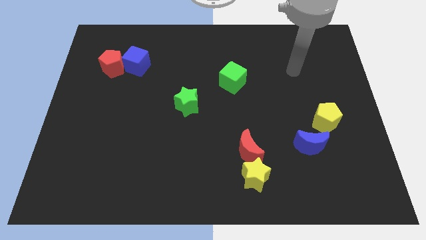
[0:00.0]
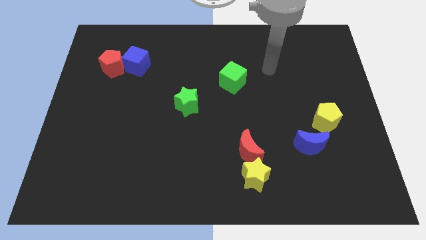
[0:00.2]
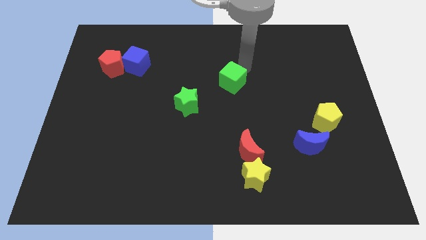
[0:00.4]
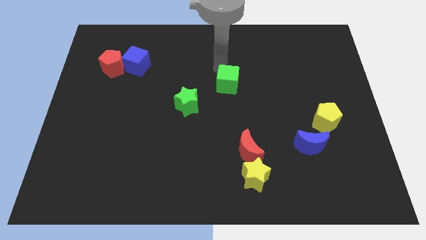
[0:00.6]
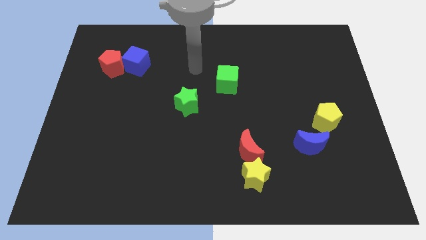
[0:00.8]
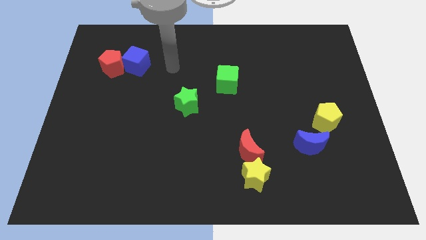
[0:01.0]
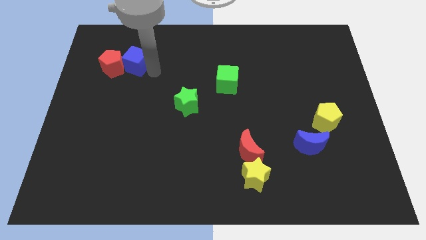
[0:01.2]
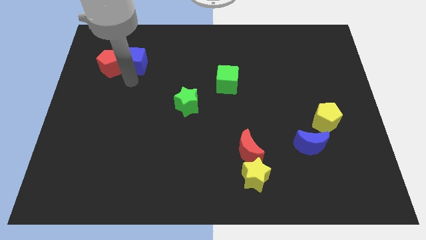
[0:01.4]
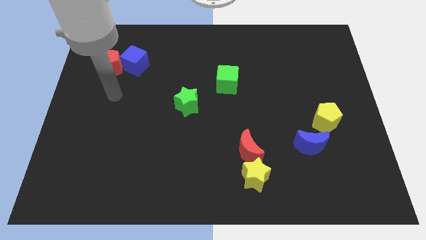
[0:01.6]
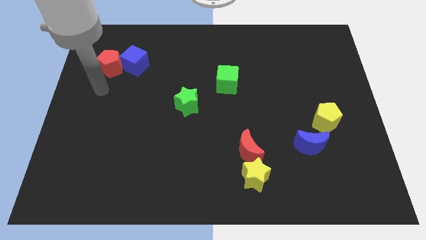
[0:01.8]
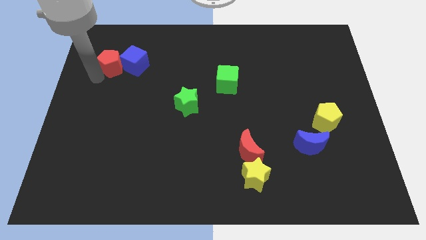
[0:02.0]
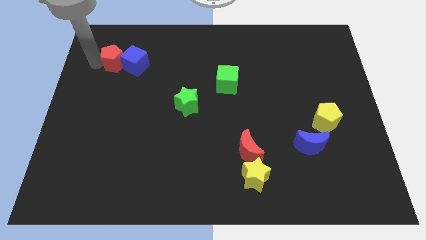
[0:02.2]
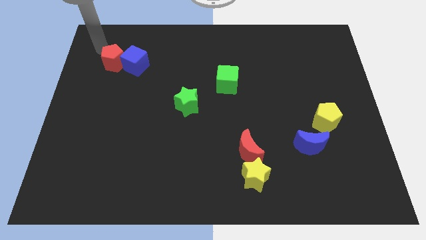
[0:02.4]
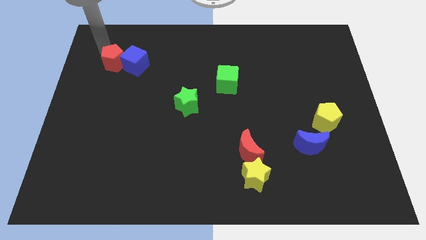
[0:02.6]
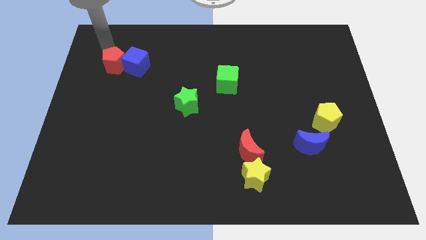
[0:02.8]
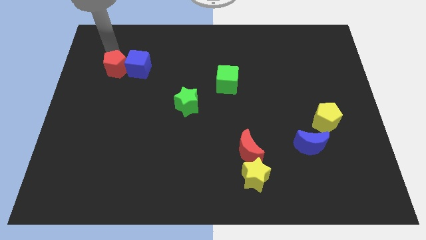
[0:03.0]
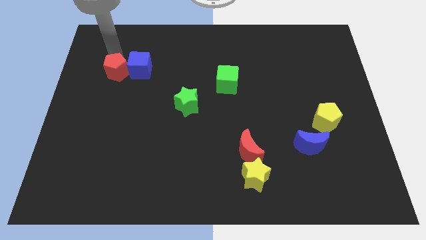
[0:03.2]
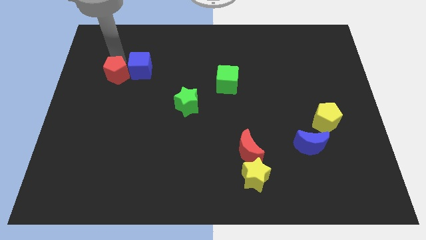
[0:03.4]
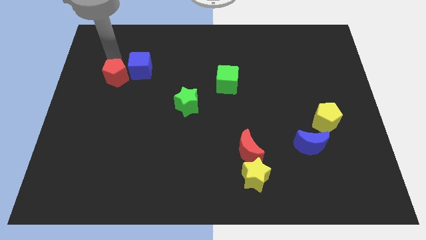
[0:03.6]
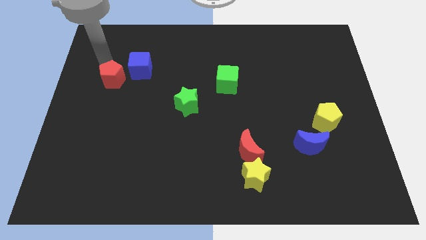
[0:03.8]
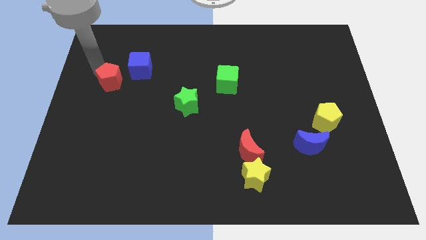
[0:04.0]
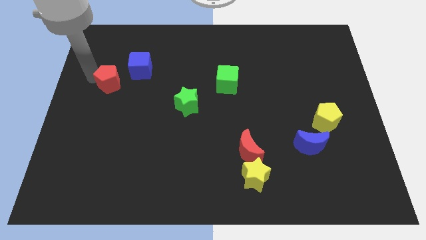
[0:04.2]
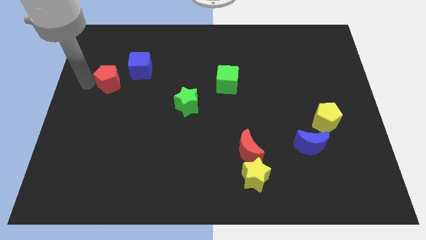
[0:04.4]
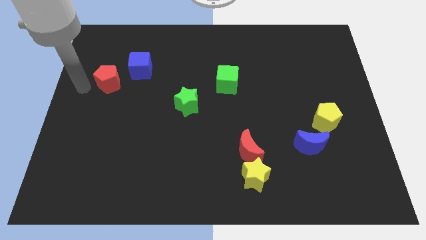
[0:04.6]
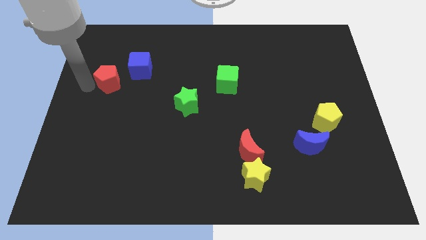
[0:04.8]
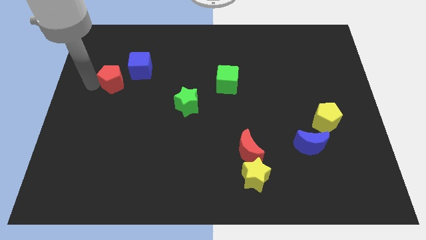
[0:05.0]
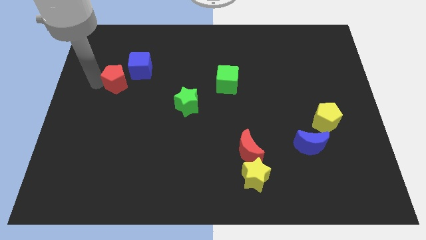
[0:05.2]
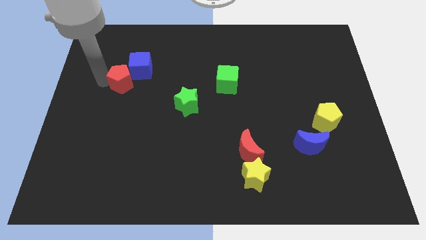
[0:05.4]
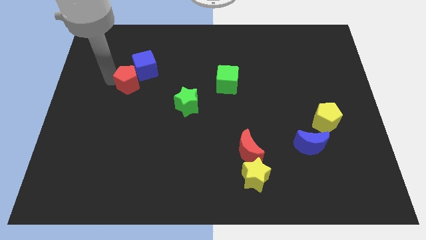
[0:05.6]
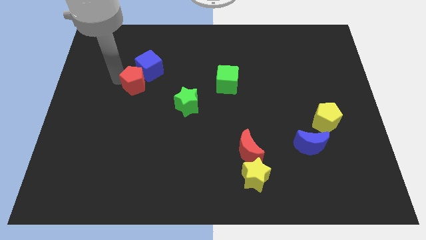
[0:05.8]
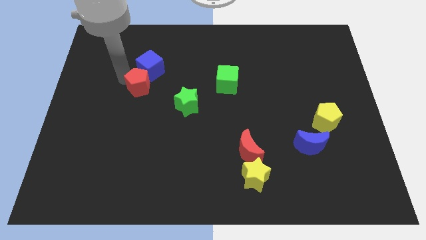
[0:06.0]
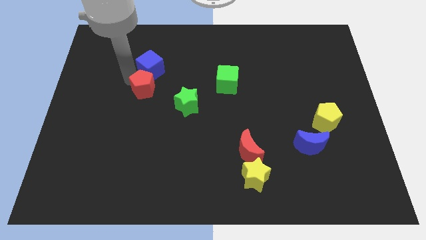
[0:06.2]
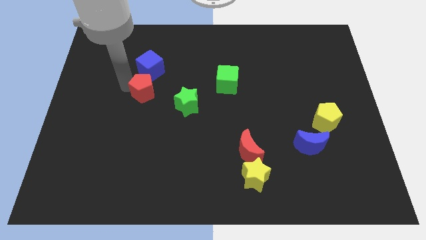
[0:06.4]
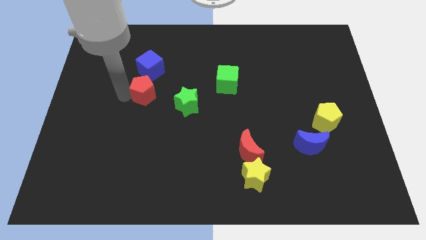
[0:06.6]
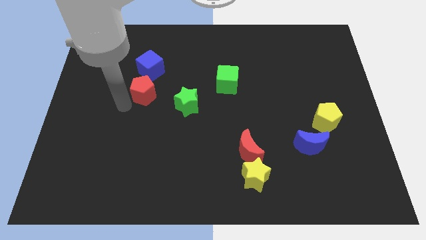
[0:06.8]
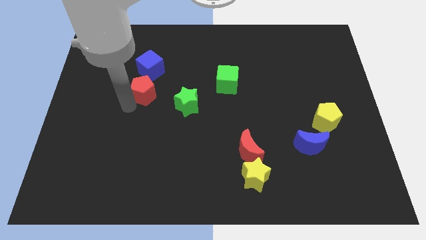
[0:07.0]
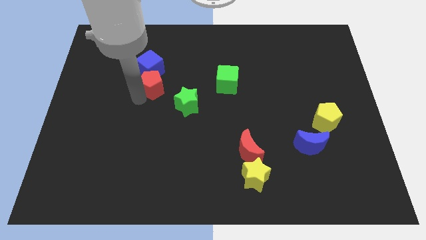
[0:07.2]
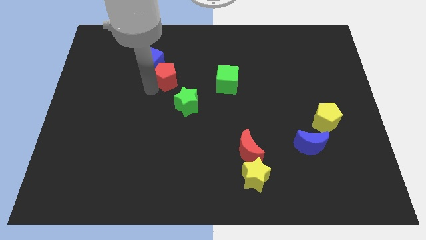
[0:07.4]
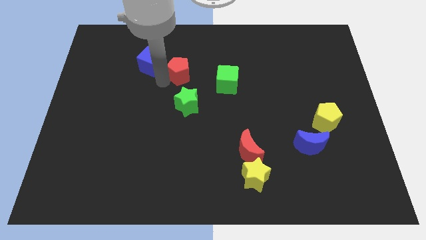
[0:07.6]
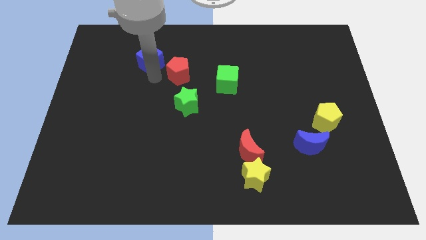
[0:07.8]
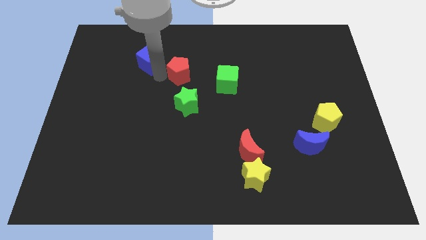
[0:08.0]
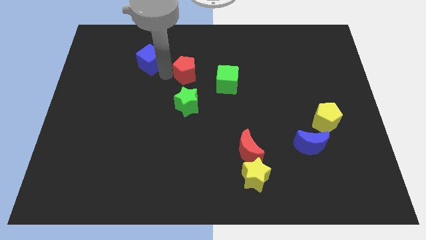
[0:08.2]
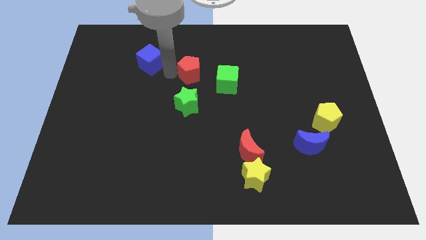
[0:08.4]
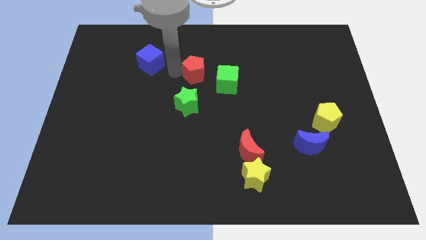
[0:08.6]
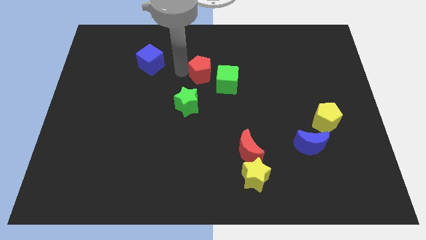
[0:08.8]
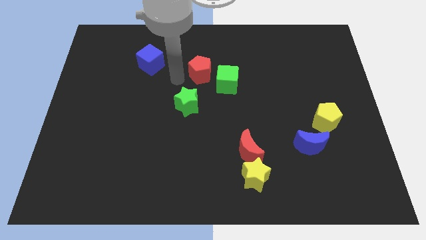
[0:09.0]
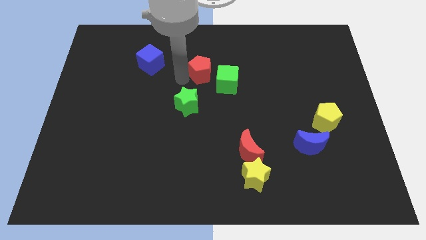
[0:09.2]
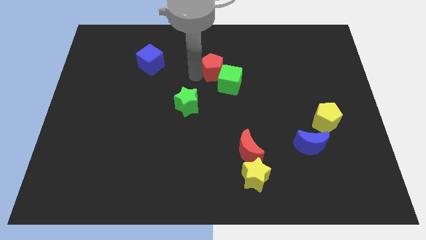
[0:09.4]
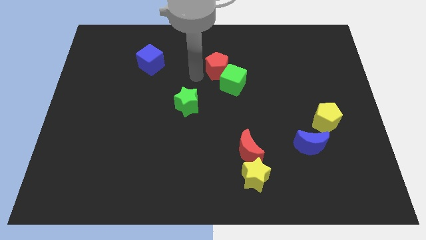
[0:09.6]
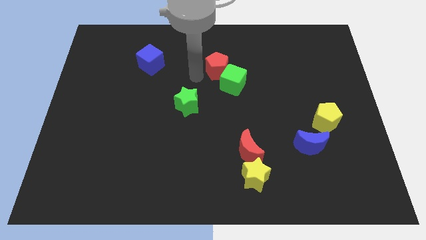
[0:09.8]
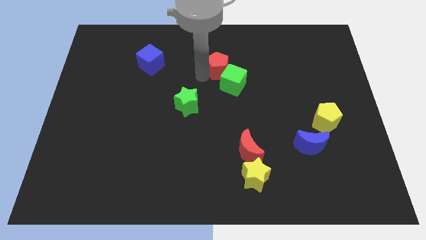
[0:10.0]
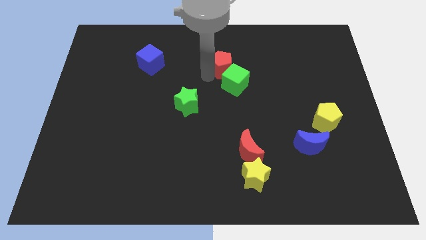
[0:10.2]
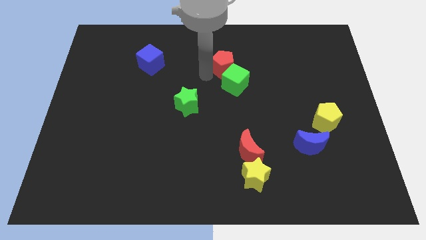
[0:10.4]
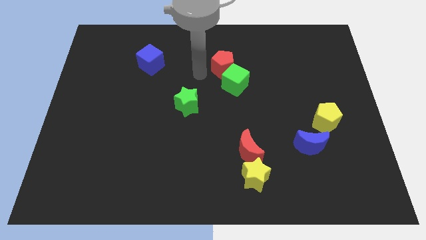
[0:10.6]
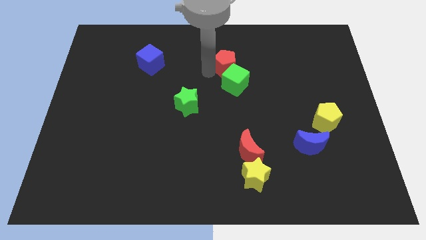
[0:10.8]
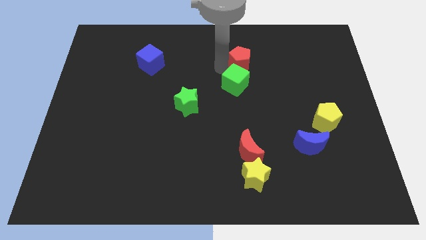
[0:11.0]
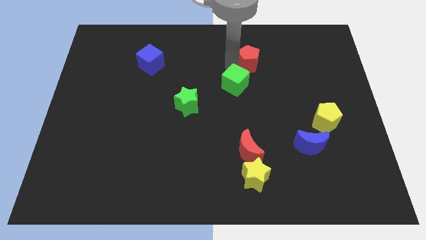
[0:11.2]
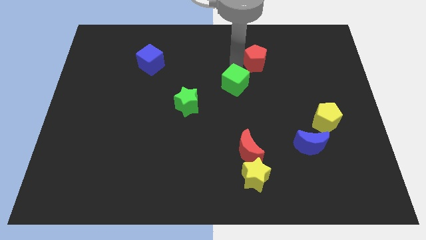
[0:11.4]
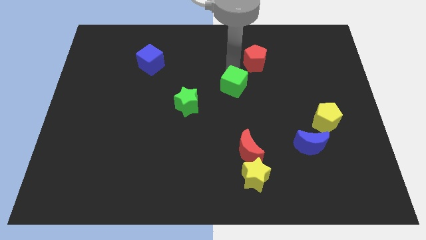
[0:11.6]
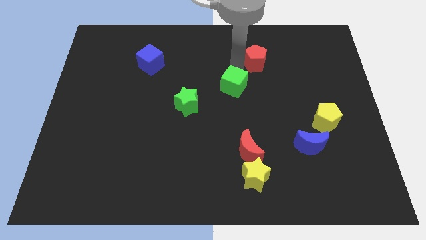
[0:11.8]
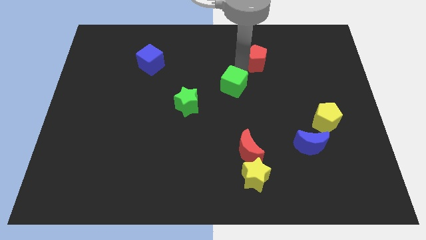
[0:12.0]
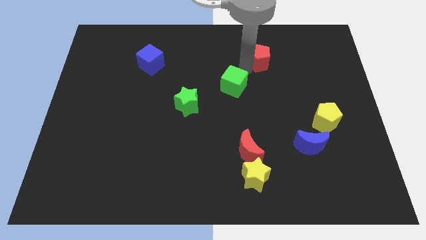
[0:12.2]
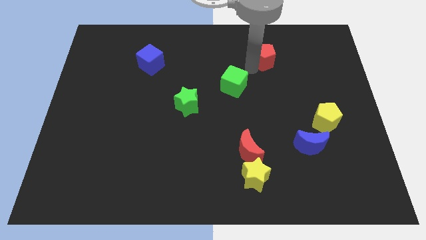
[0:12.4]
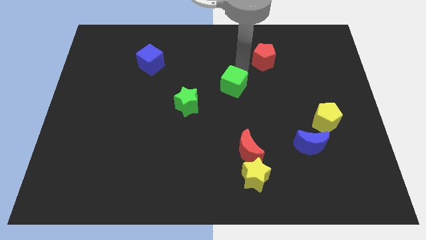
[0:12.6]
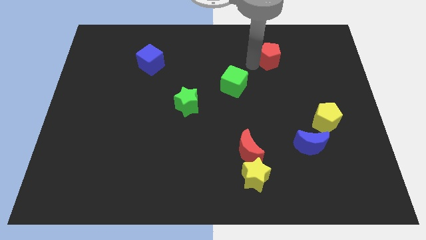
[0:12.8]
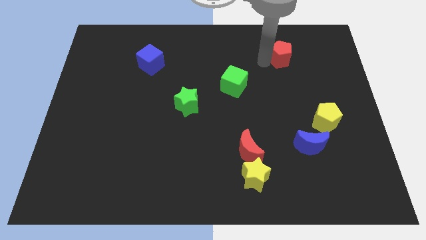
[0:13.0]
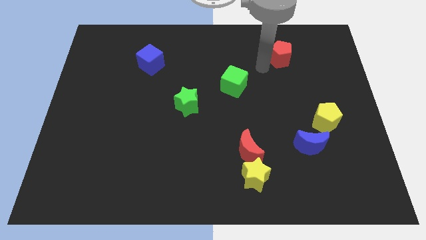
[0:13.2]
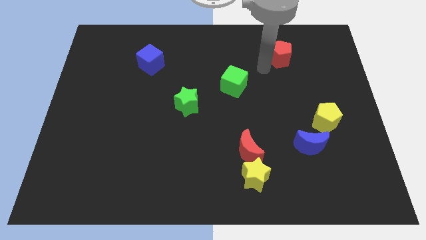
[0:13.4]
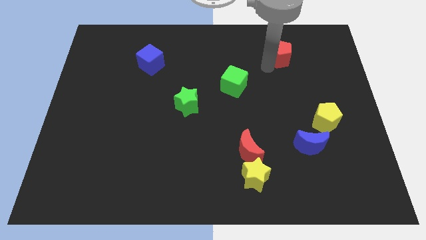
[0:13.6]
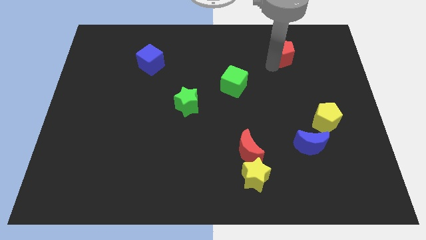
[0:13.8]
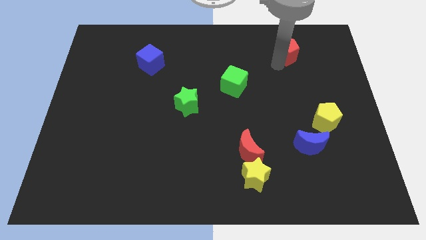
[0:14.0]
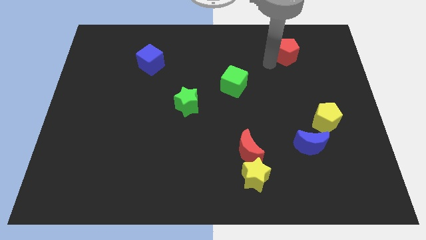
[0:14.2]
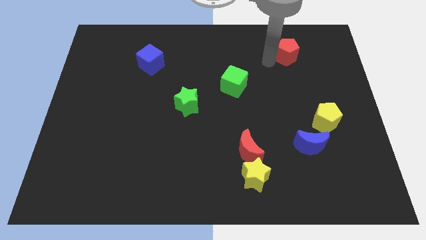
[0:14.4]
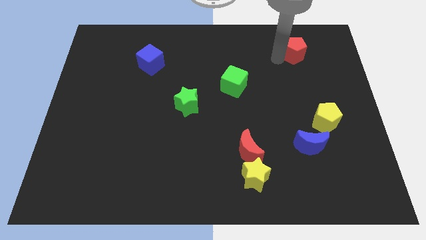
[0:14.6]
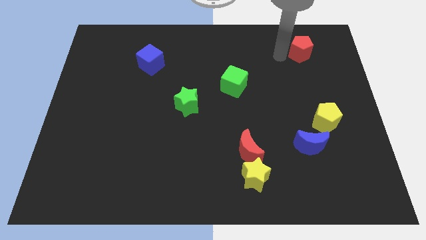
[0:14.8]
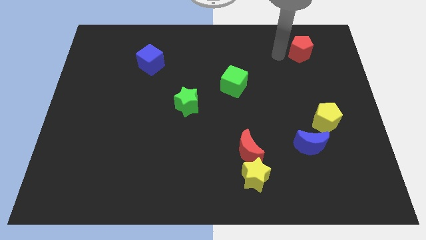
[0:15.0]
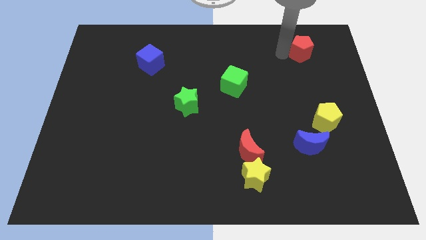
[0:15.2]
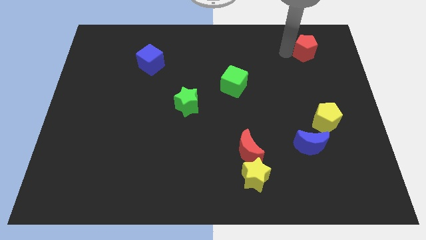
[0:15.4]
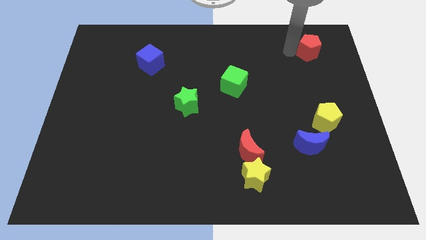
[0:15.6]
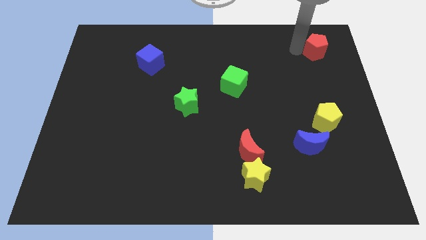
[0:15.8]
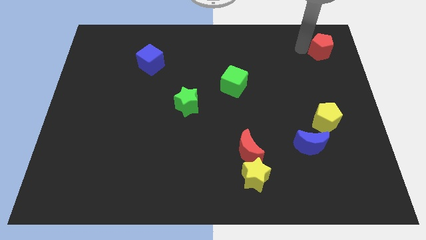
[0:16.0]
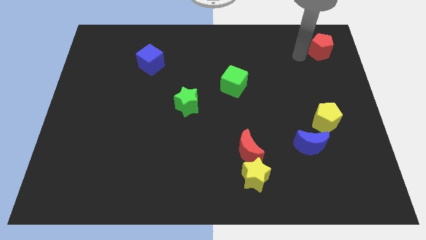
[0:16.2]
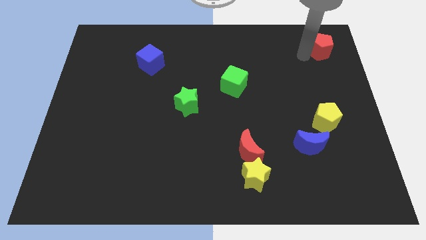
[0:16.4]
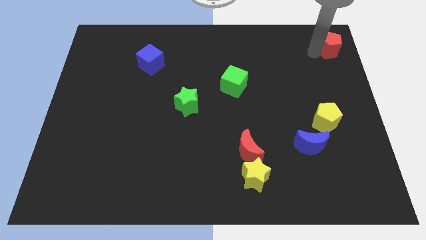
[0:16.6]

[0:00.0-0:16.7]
push the red pentagon to the upper right corner
